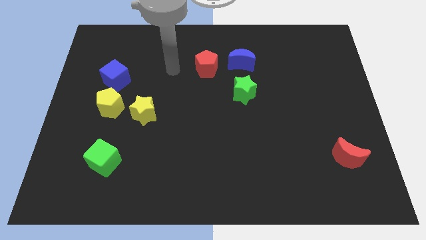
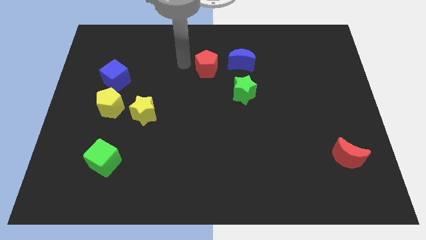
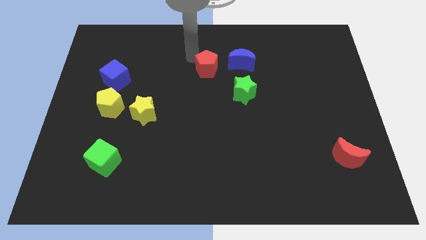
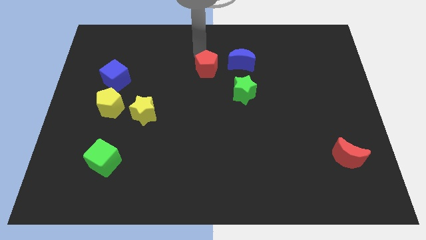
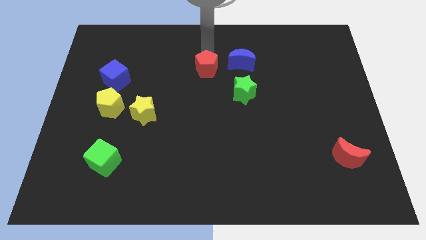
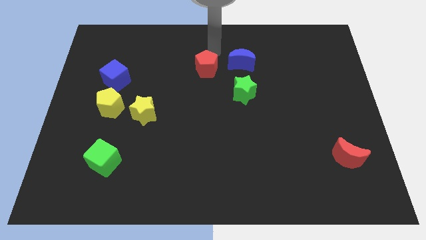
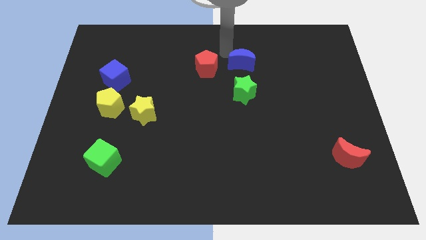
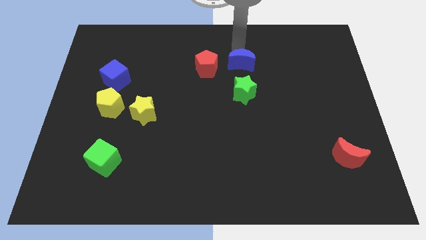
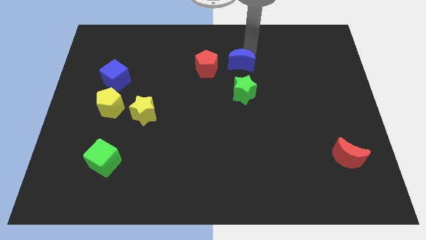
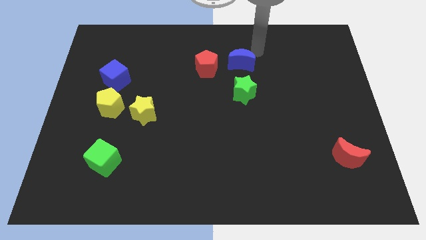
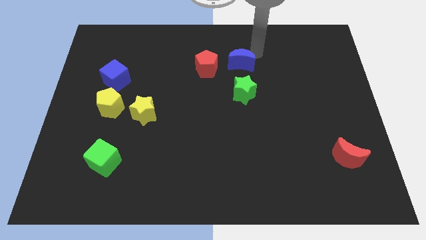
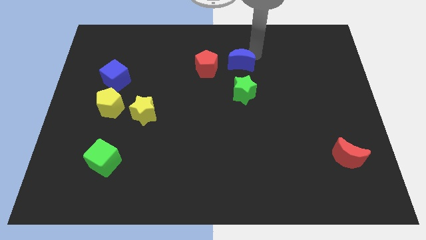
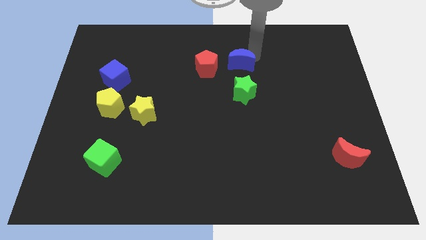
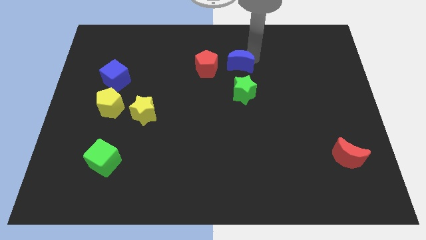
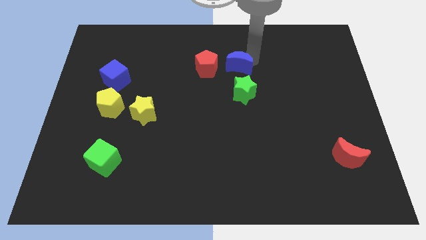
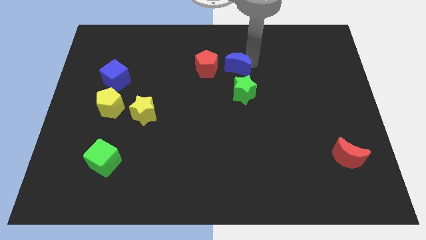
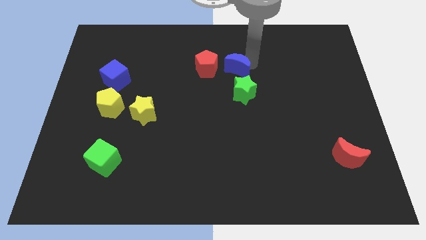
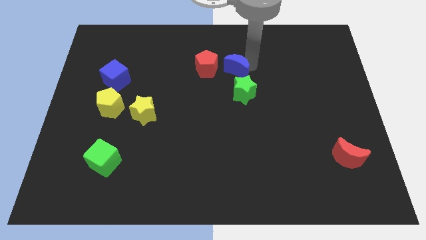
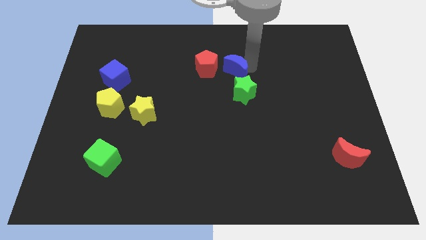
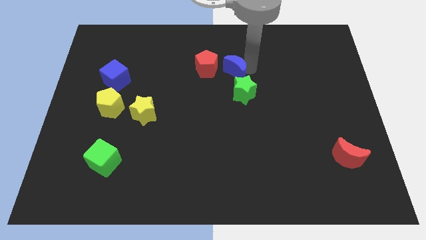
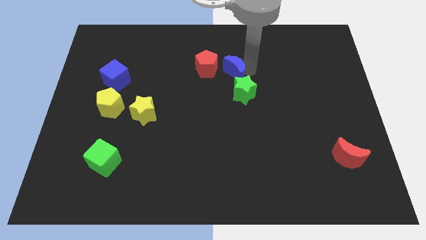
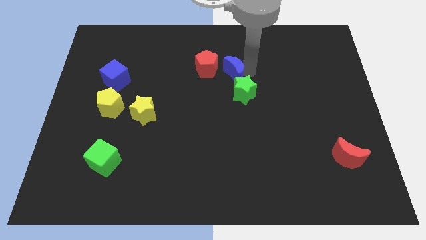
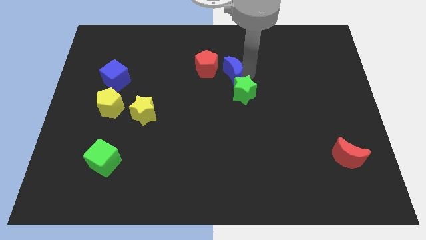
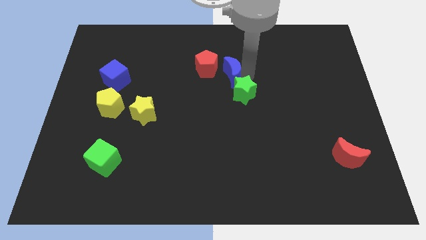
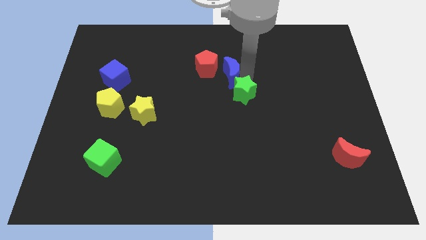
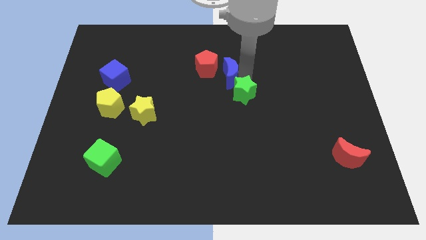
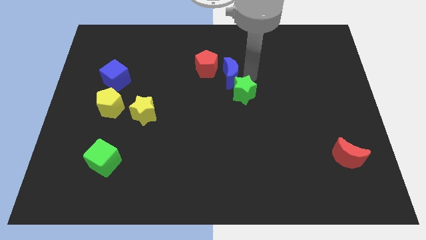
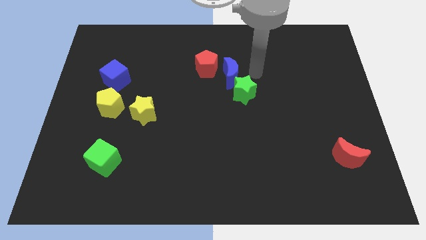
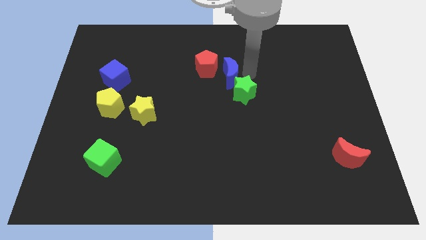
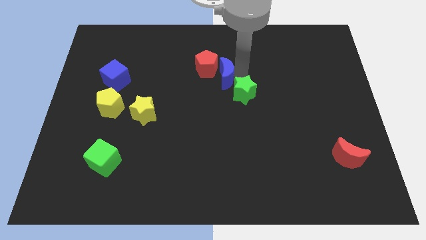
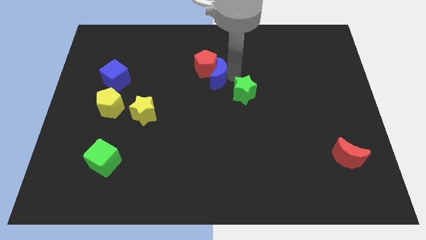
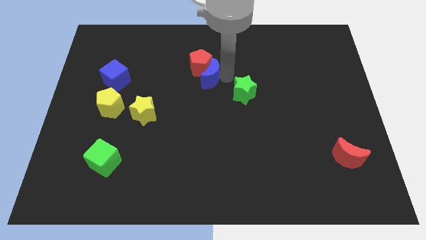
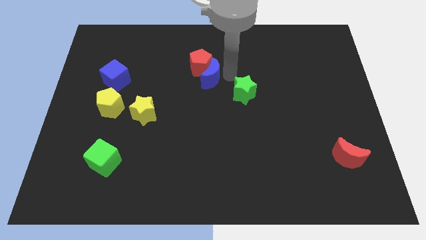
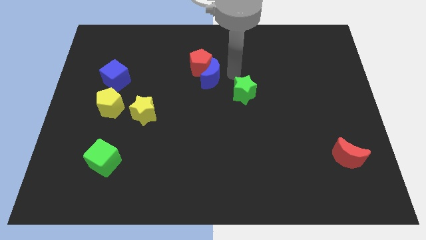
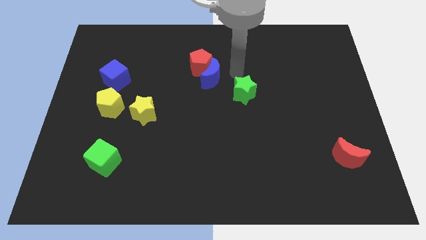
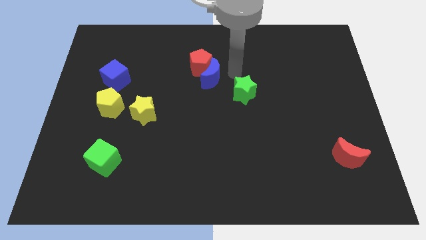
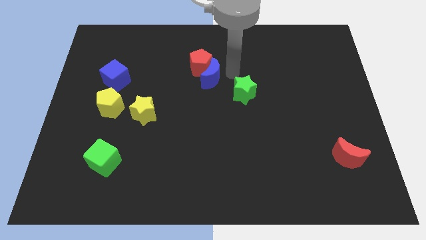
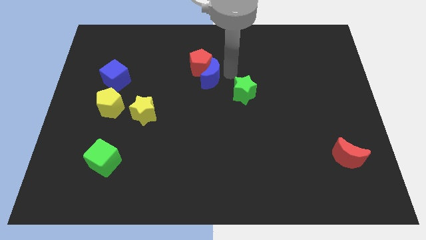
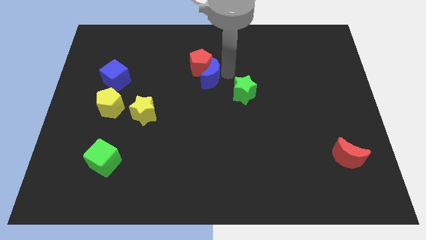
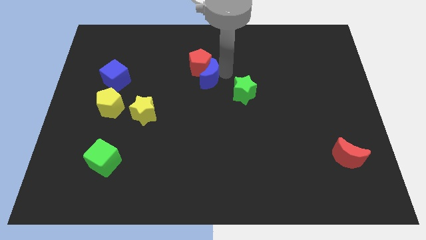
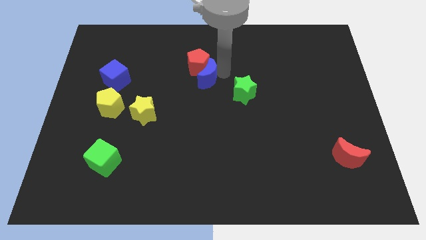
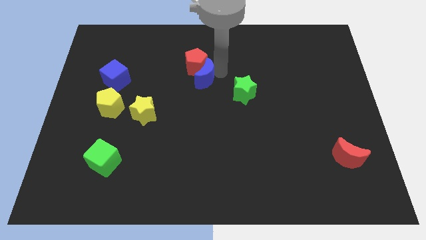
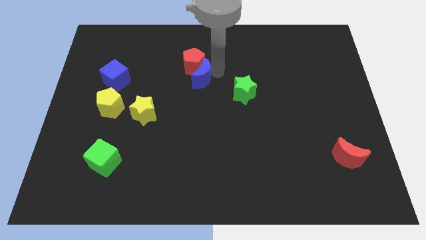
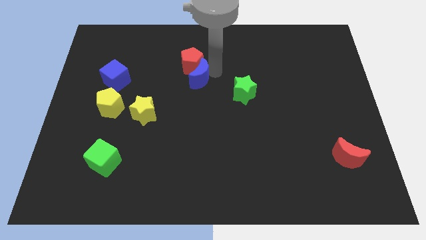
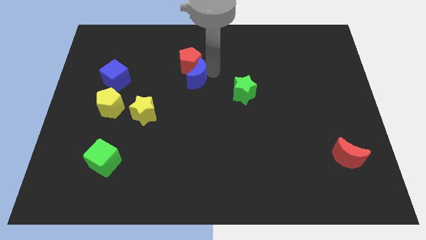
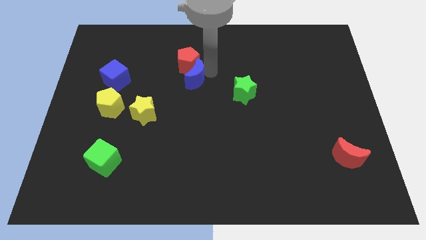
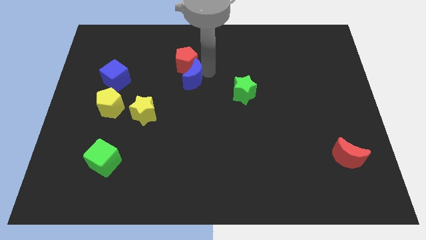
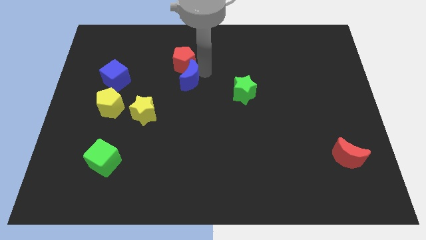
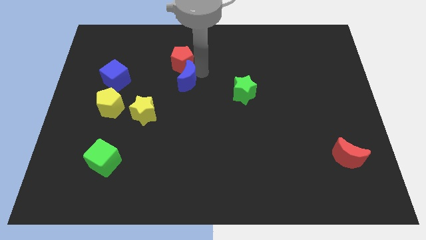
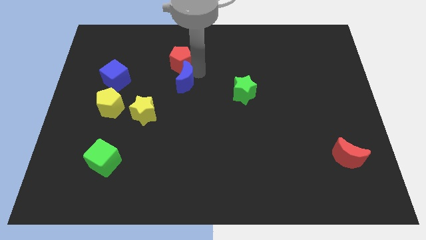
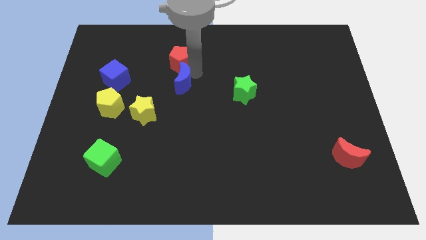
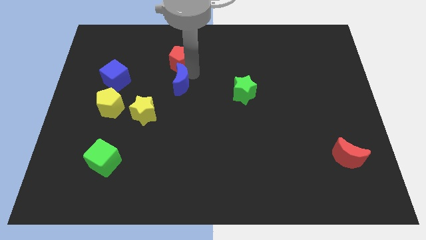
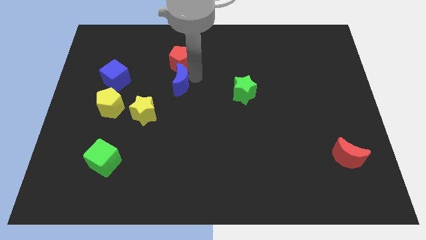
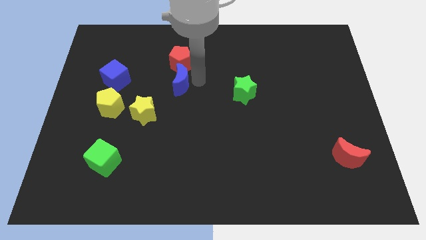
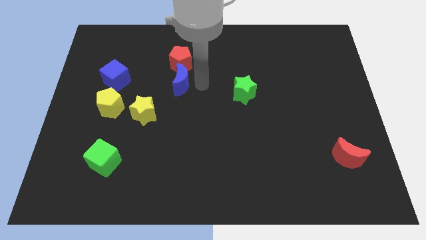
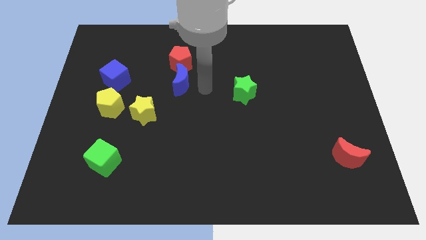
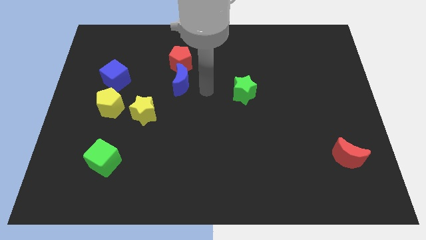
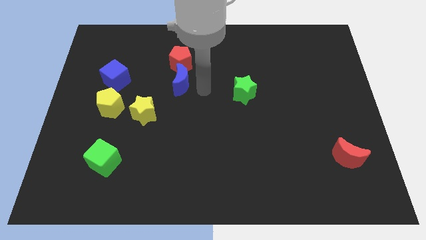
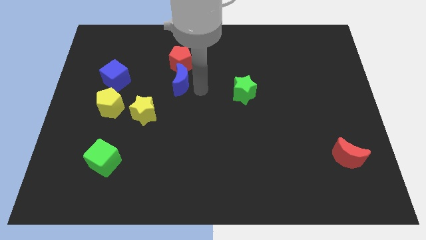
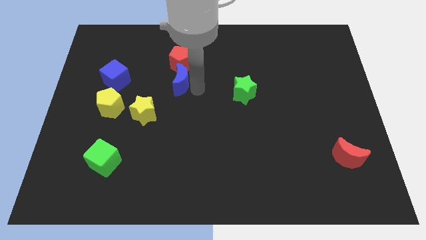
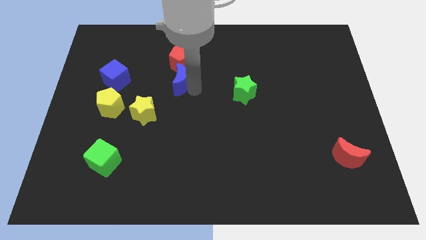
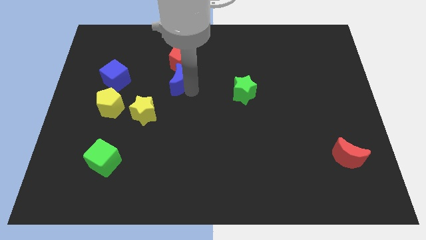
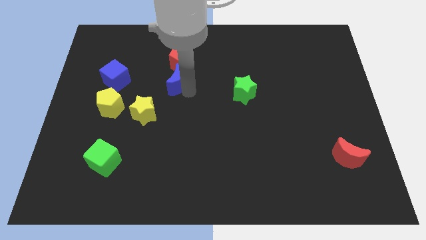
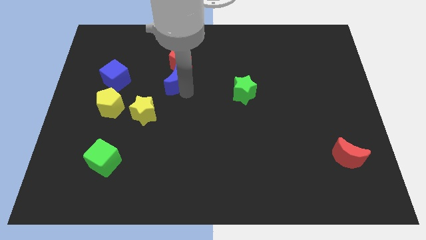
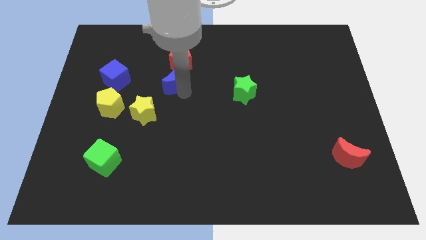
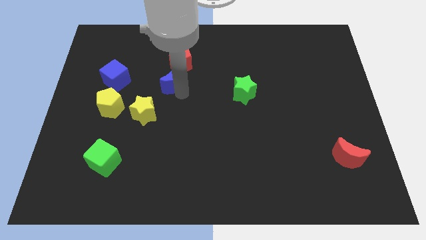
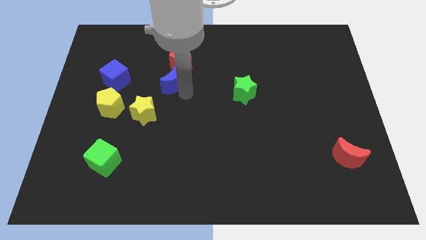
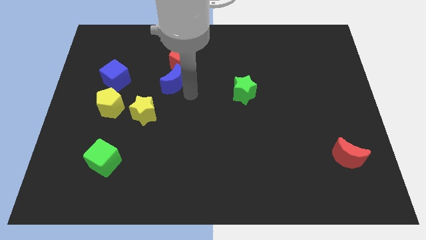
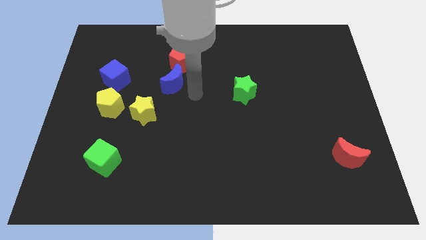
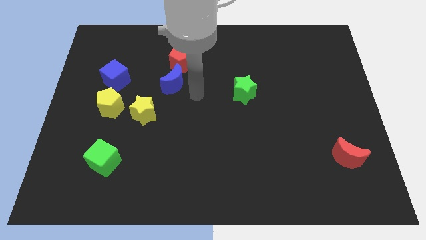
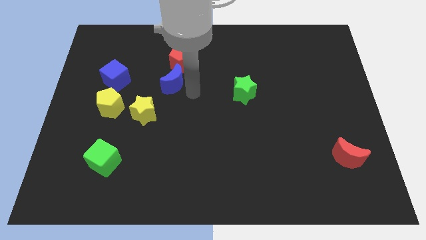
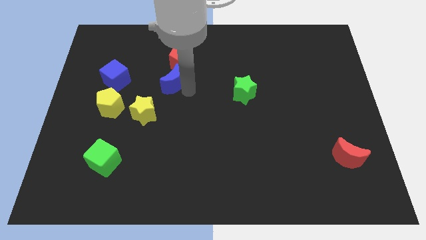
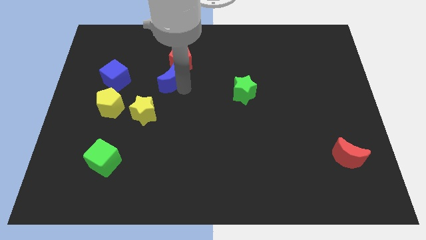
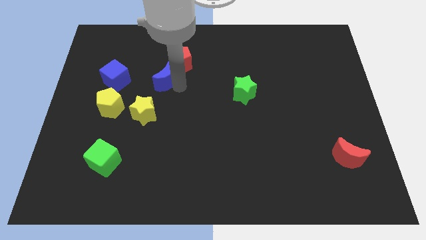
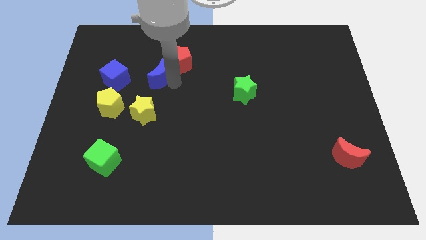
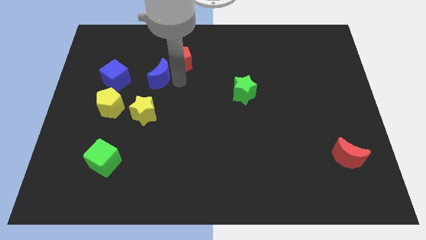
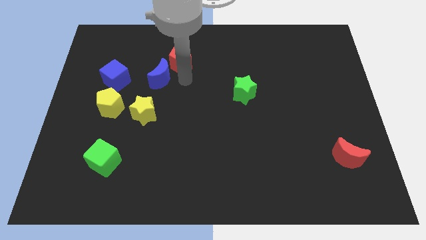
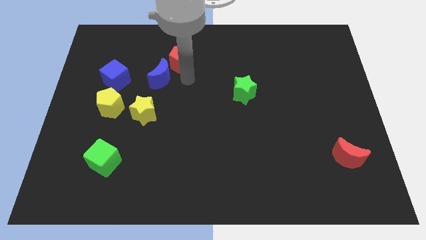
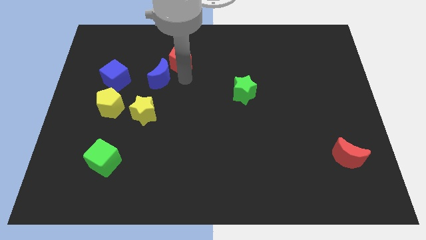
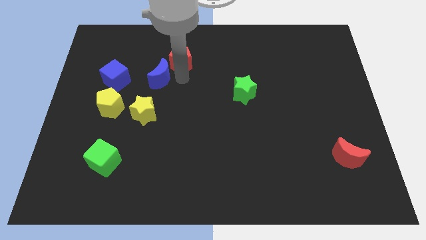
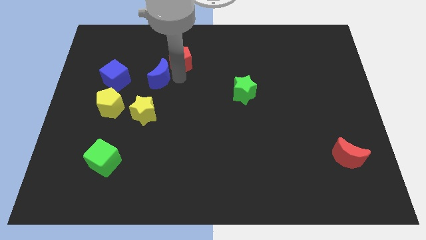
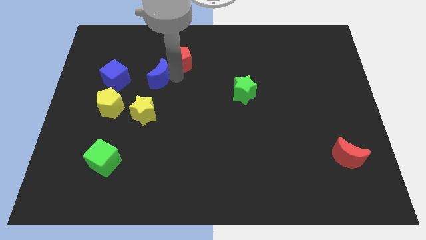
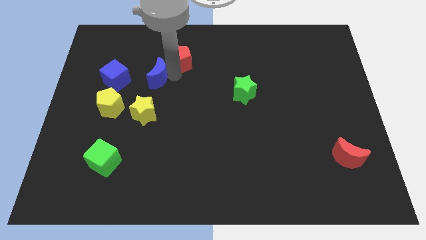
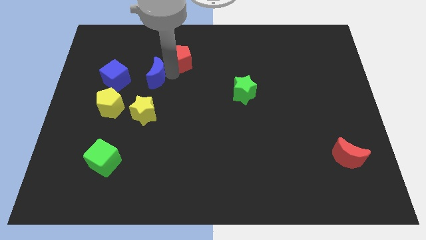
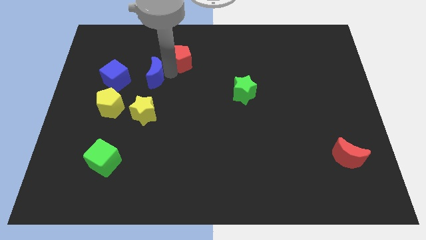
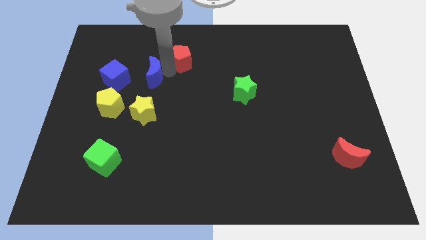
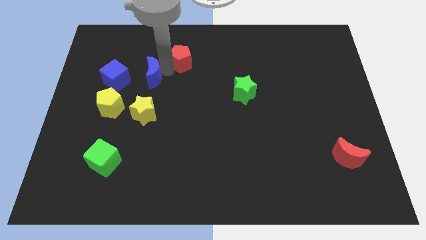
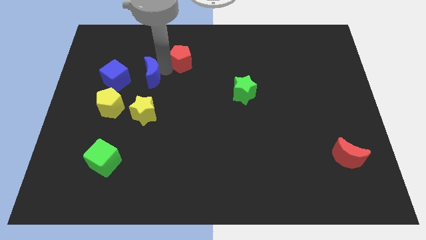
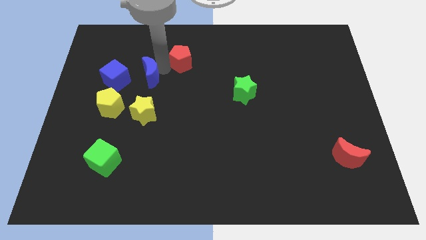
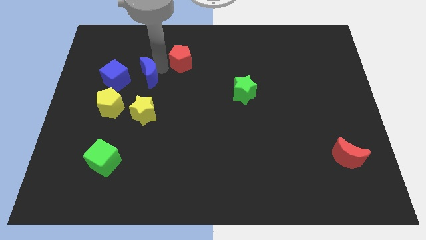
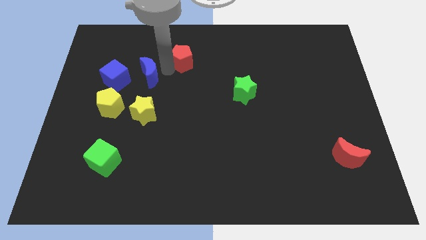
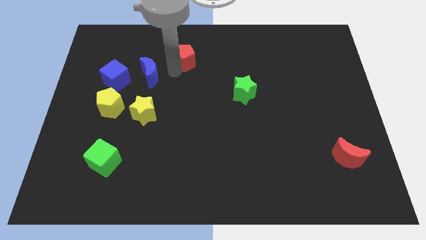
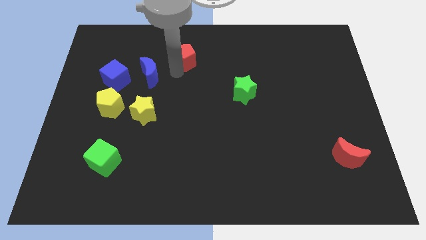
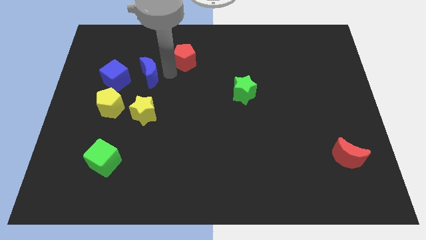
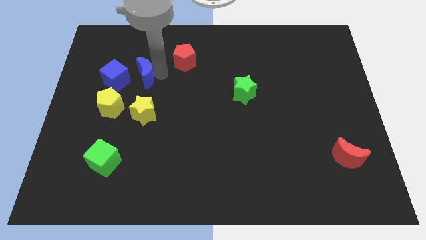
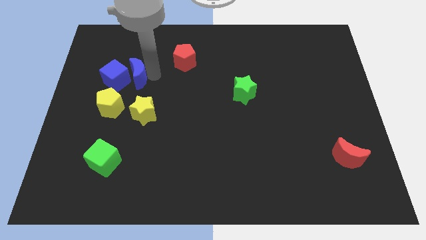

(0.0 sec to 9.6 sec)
slide the blue moon towards the blue cube
